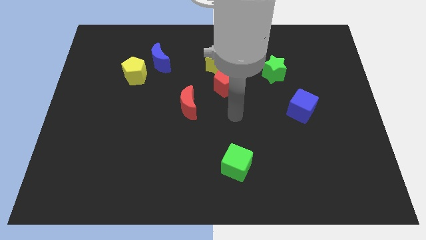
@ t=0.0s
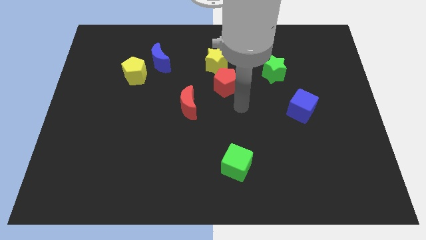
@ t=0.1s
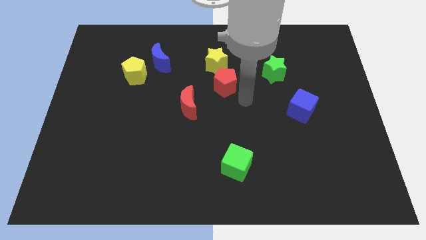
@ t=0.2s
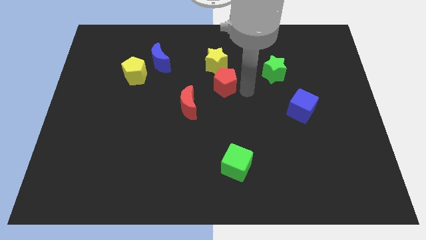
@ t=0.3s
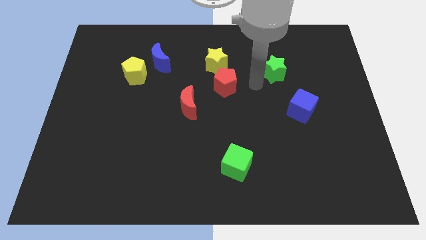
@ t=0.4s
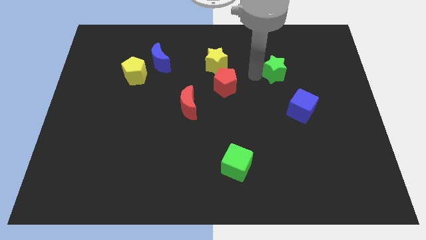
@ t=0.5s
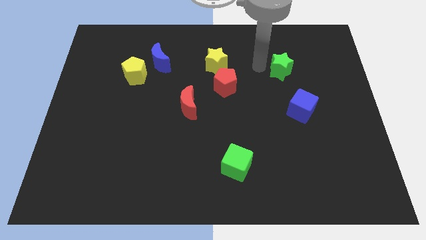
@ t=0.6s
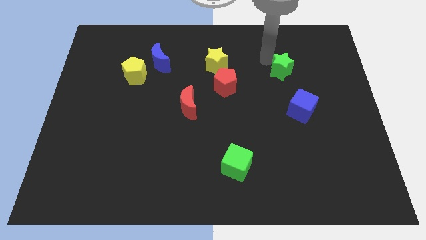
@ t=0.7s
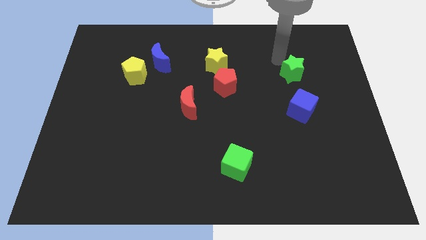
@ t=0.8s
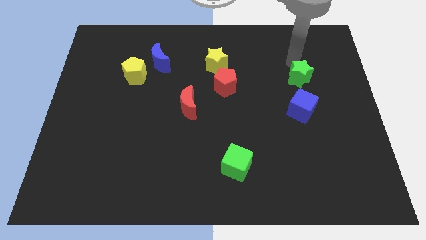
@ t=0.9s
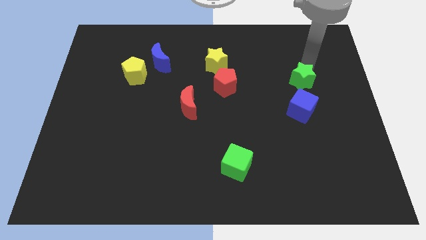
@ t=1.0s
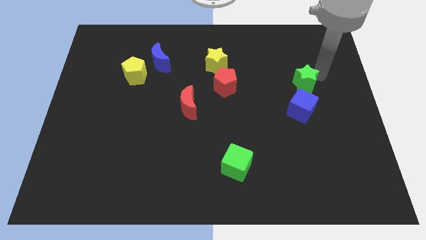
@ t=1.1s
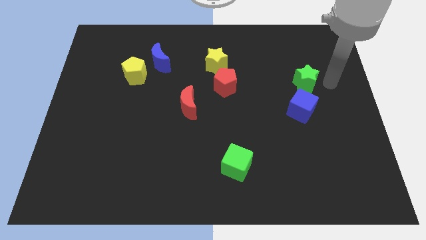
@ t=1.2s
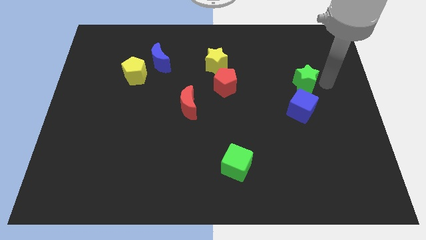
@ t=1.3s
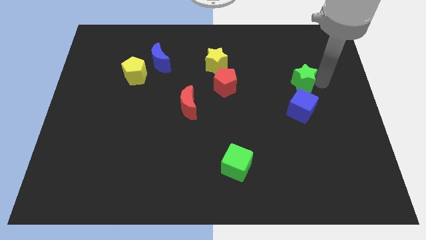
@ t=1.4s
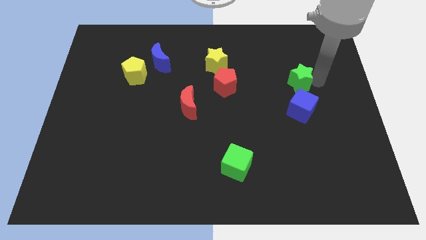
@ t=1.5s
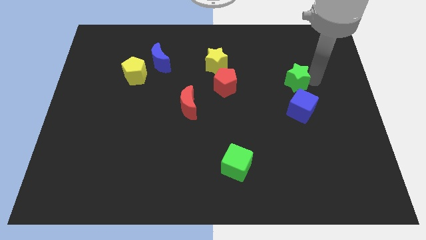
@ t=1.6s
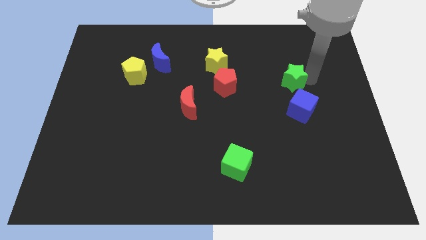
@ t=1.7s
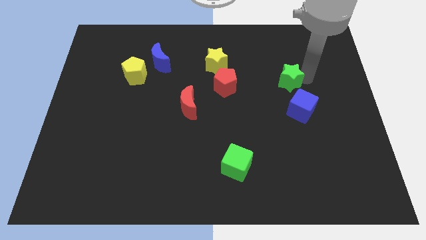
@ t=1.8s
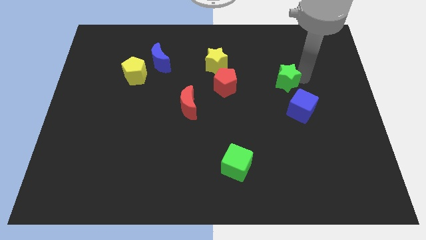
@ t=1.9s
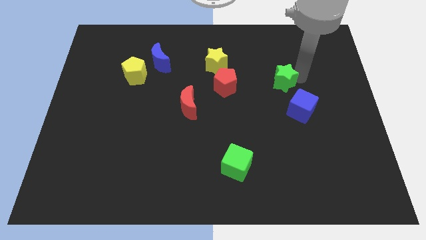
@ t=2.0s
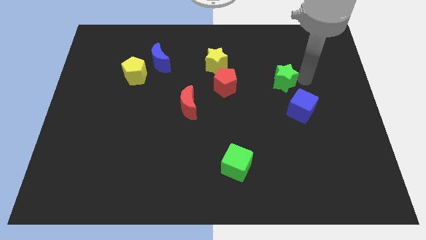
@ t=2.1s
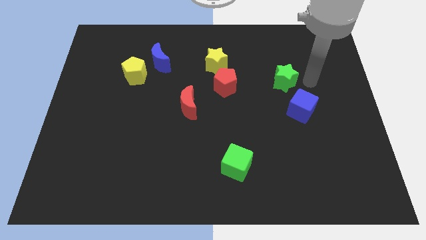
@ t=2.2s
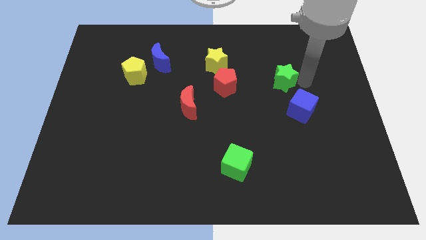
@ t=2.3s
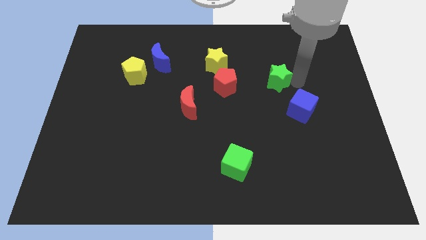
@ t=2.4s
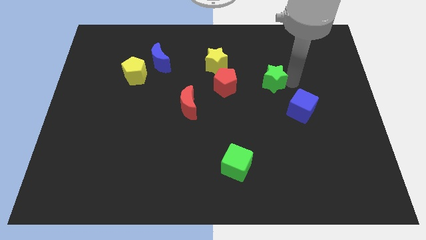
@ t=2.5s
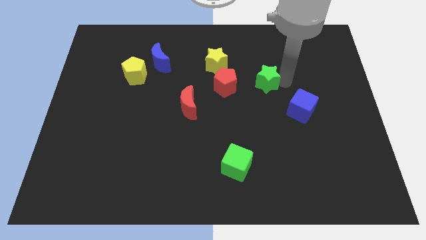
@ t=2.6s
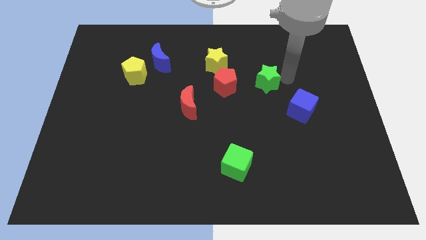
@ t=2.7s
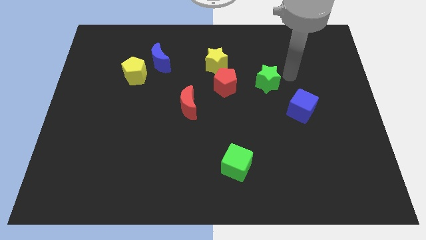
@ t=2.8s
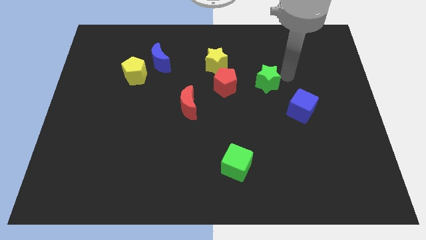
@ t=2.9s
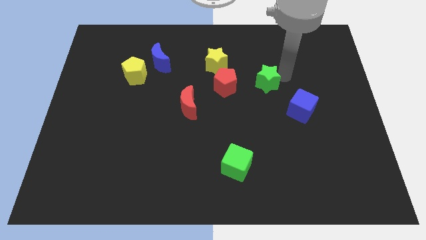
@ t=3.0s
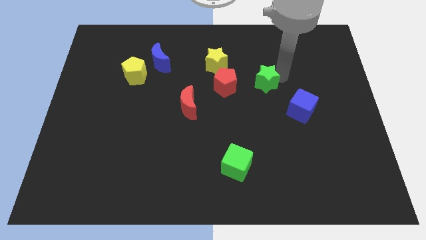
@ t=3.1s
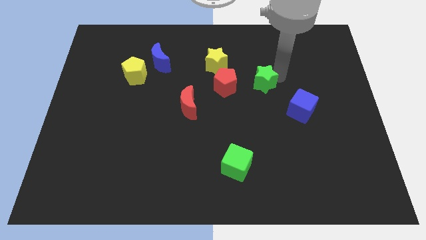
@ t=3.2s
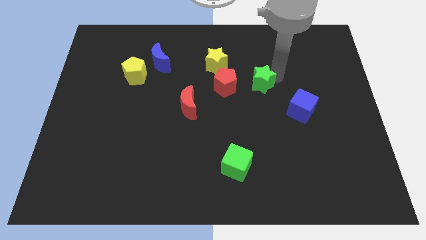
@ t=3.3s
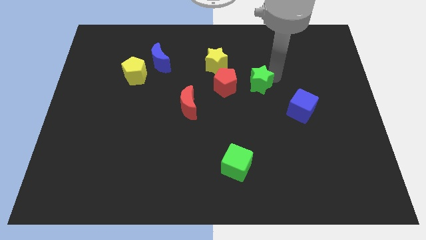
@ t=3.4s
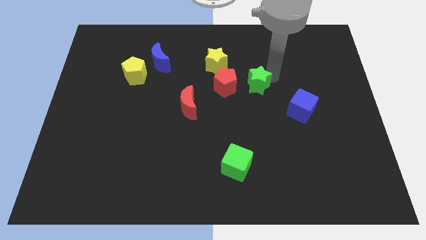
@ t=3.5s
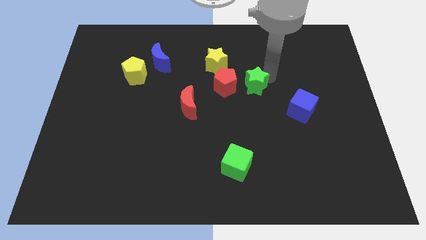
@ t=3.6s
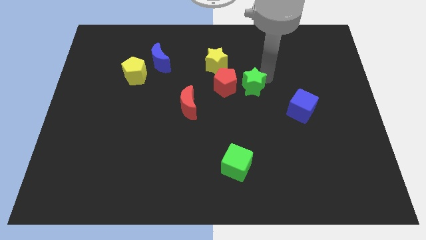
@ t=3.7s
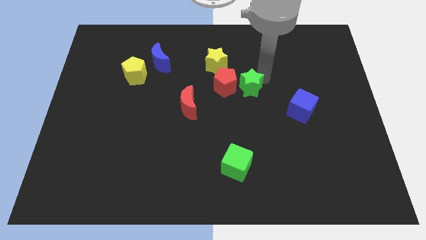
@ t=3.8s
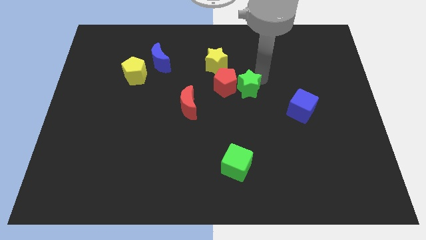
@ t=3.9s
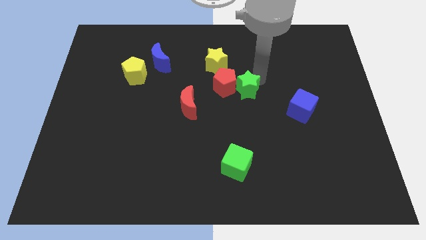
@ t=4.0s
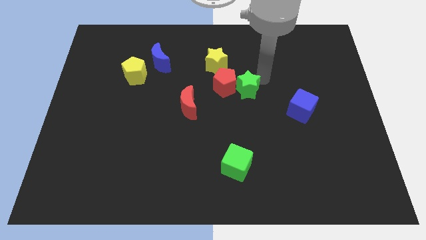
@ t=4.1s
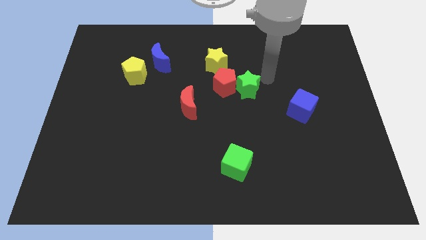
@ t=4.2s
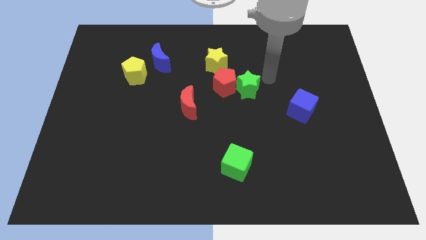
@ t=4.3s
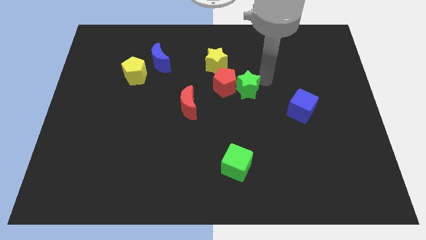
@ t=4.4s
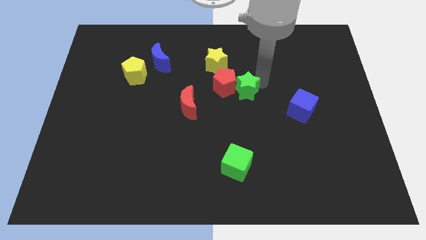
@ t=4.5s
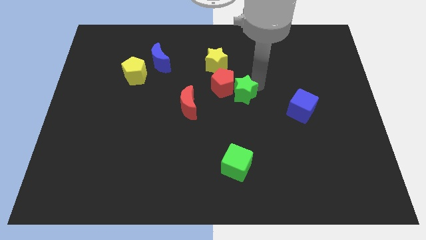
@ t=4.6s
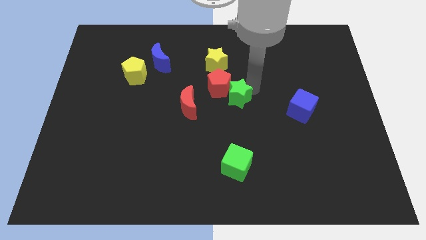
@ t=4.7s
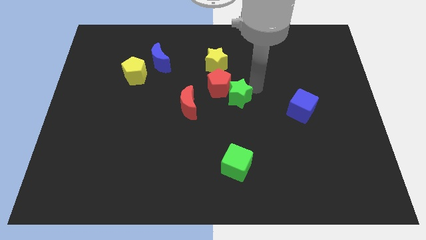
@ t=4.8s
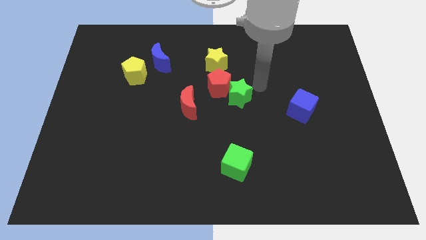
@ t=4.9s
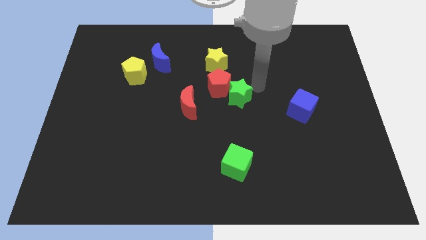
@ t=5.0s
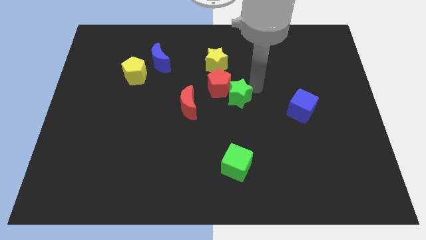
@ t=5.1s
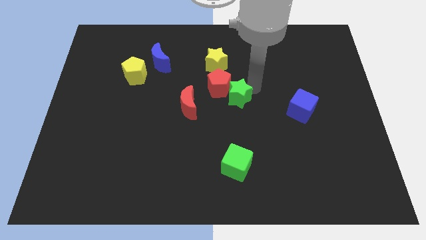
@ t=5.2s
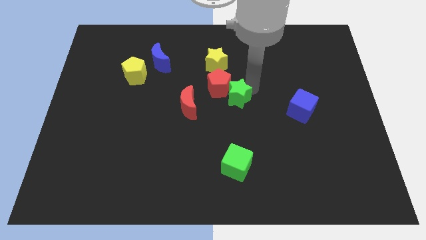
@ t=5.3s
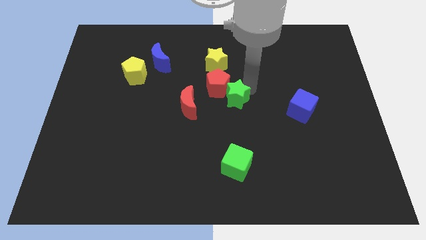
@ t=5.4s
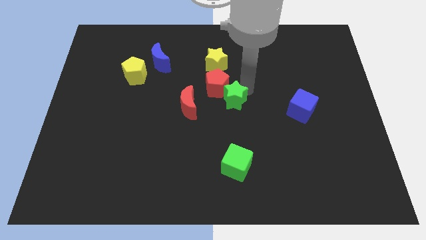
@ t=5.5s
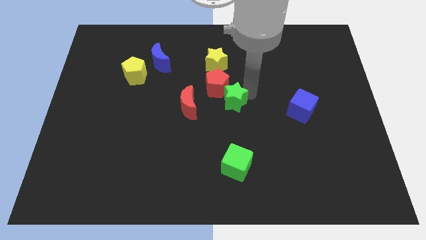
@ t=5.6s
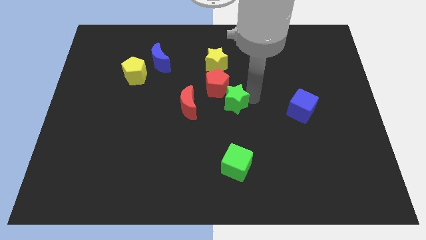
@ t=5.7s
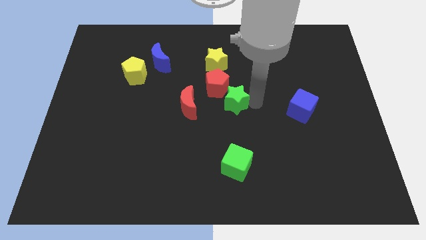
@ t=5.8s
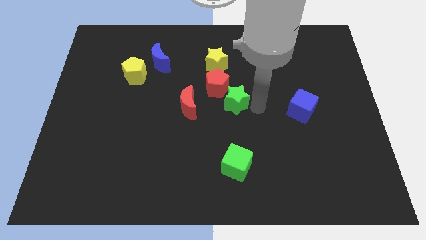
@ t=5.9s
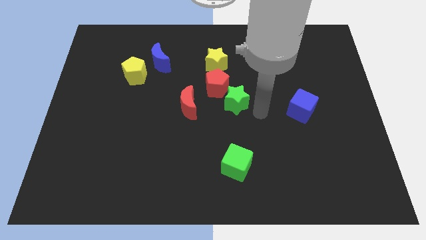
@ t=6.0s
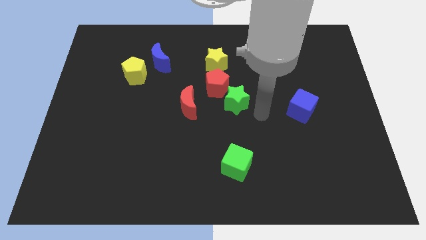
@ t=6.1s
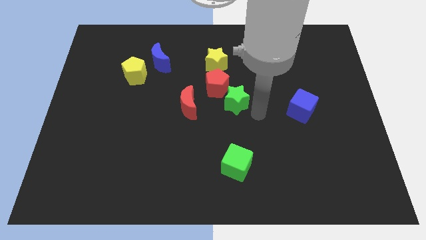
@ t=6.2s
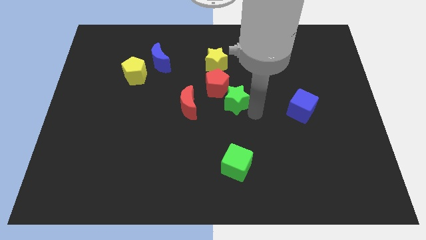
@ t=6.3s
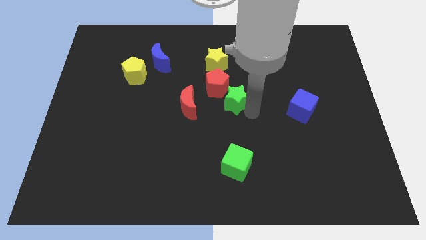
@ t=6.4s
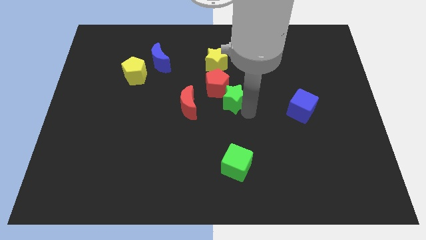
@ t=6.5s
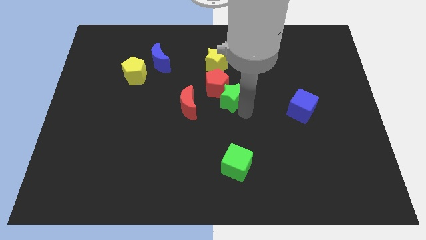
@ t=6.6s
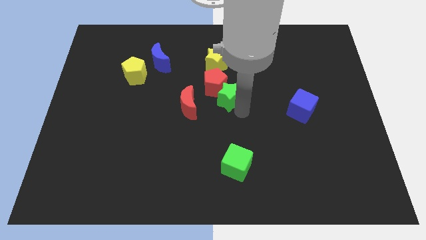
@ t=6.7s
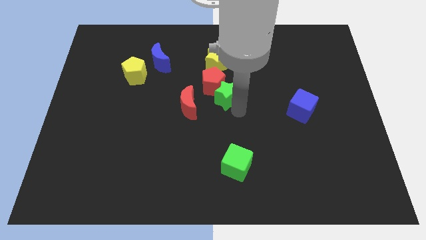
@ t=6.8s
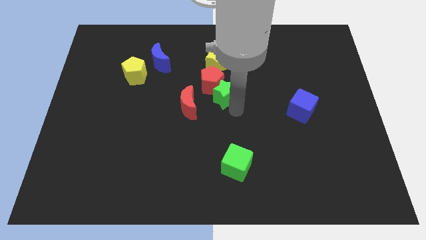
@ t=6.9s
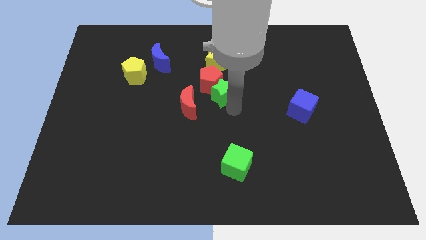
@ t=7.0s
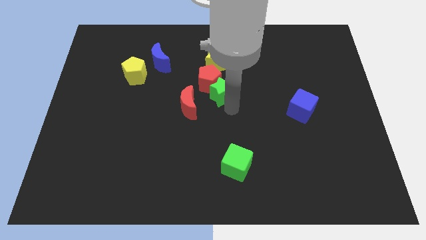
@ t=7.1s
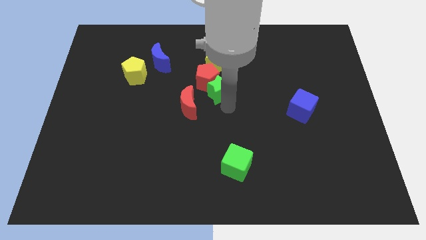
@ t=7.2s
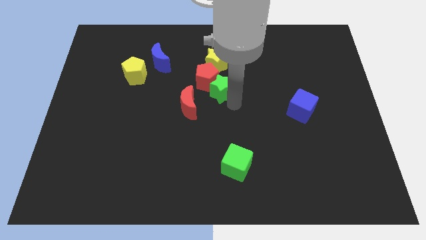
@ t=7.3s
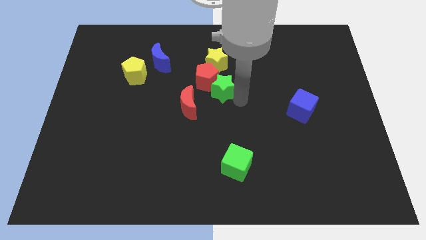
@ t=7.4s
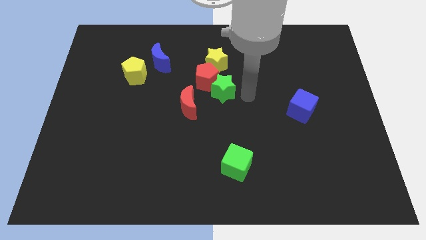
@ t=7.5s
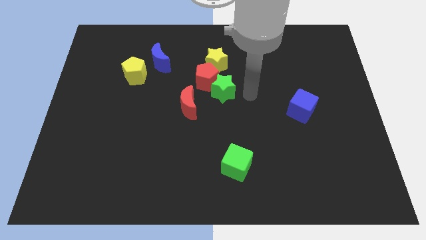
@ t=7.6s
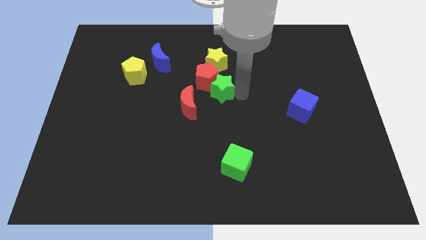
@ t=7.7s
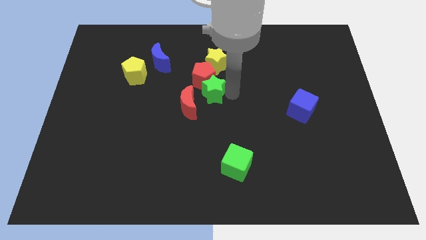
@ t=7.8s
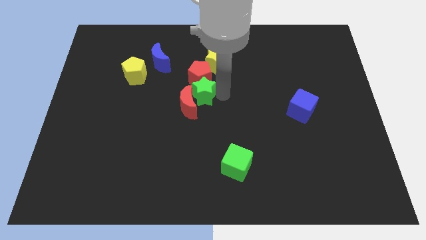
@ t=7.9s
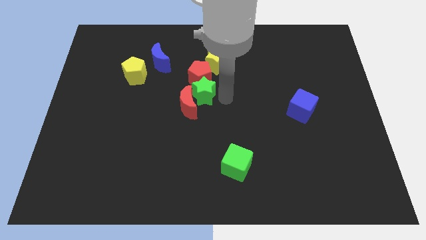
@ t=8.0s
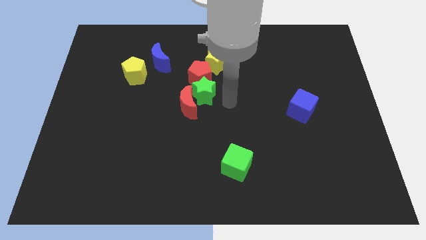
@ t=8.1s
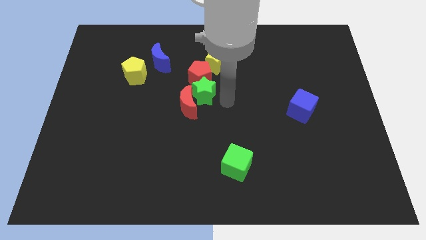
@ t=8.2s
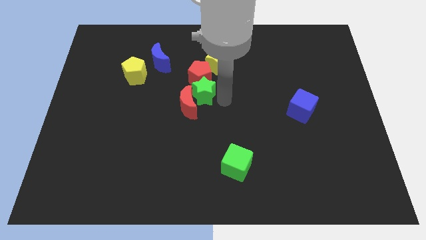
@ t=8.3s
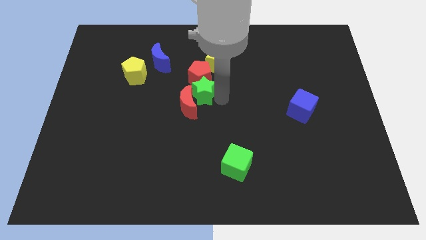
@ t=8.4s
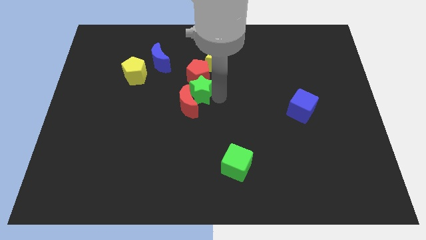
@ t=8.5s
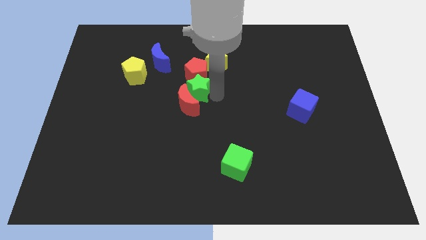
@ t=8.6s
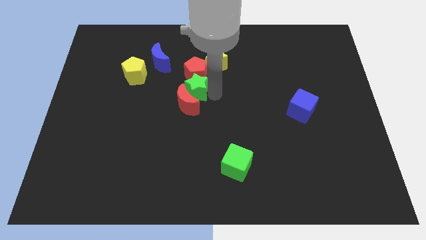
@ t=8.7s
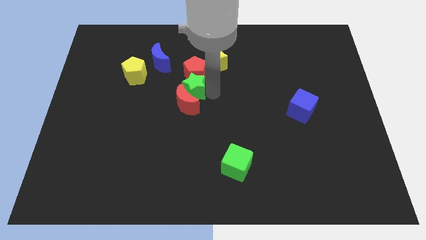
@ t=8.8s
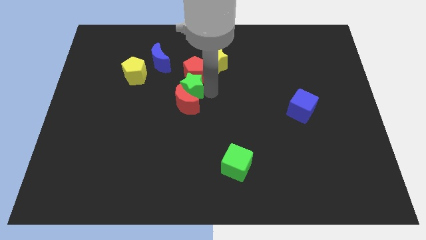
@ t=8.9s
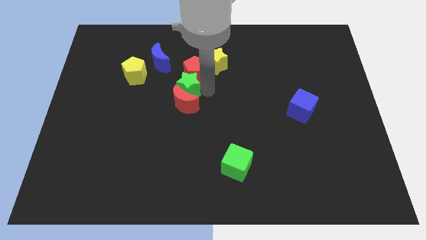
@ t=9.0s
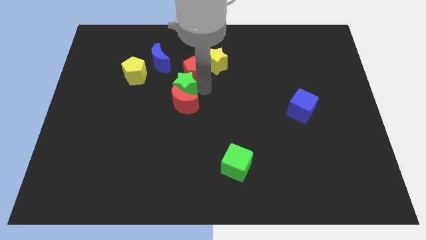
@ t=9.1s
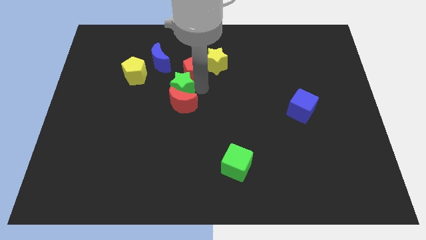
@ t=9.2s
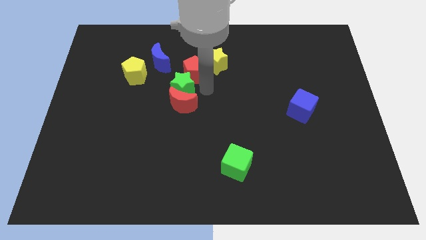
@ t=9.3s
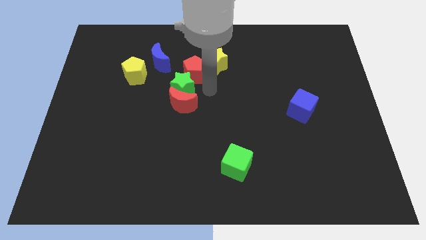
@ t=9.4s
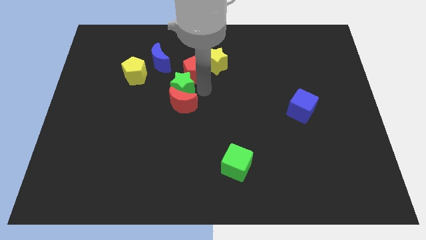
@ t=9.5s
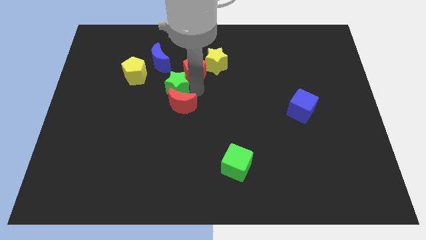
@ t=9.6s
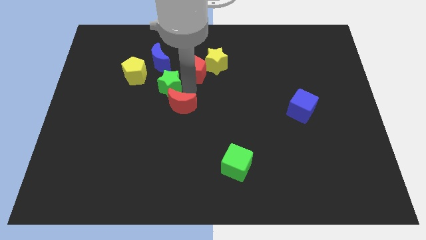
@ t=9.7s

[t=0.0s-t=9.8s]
slide the green star diagonally down and to the right of the yellow pentagon
